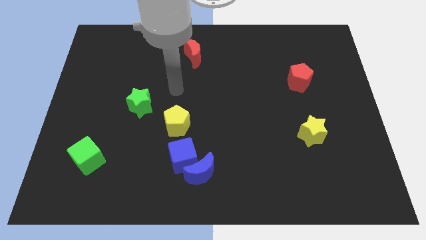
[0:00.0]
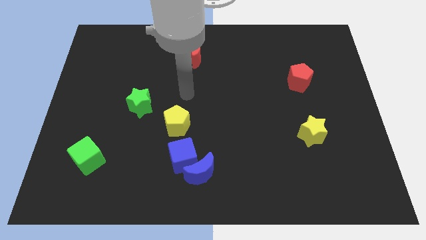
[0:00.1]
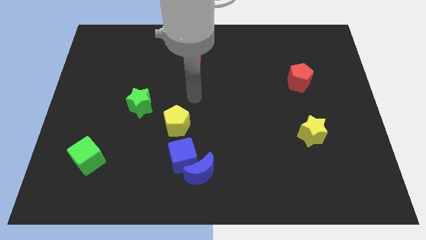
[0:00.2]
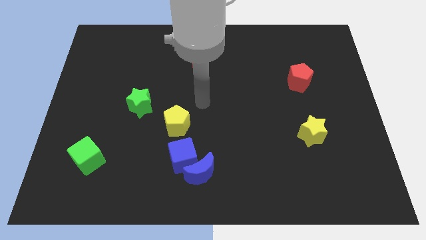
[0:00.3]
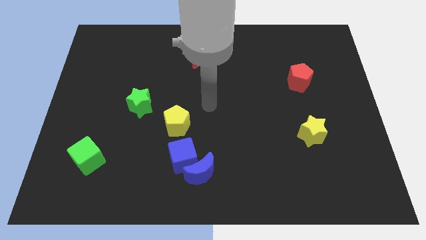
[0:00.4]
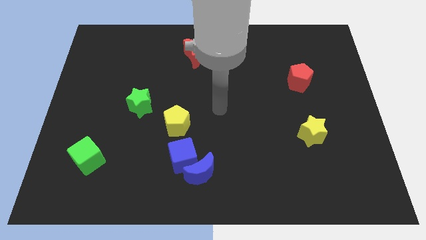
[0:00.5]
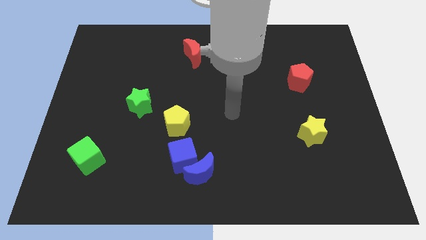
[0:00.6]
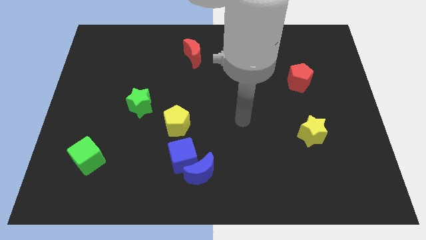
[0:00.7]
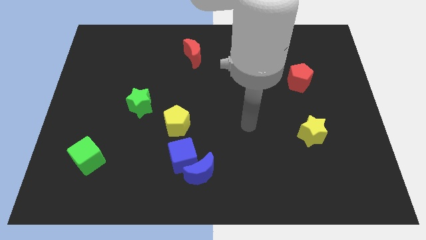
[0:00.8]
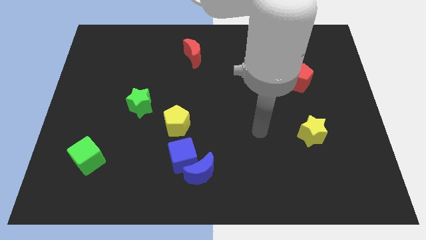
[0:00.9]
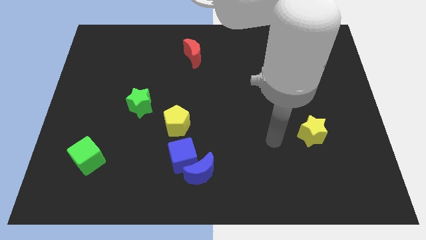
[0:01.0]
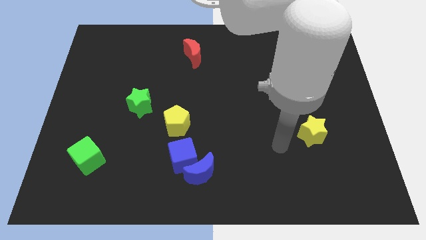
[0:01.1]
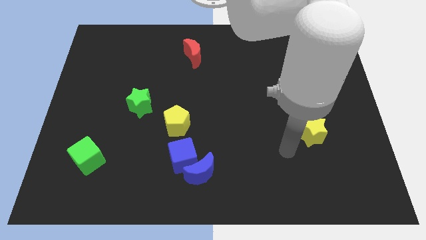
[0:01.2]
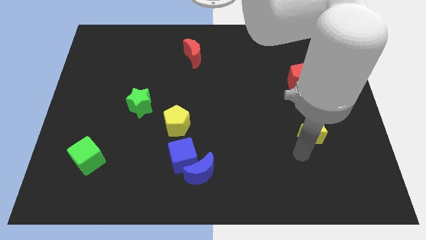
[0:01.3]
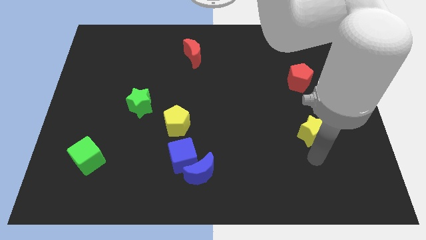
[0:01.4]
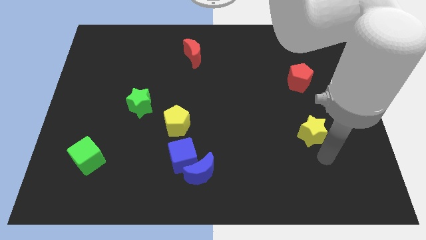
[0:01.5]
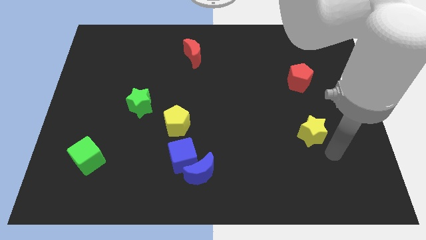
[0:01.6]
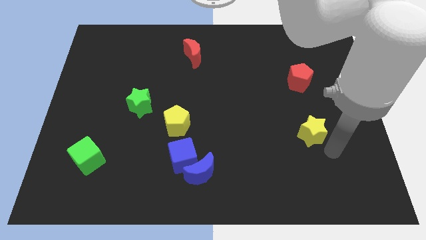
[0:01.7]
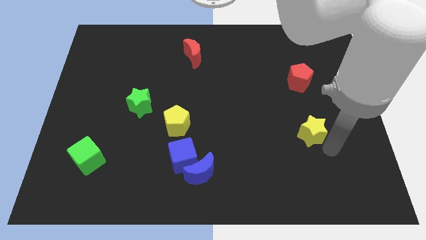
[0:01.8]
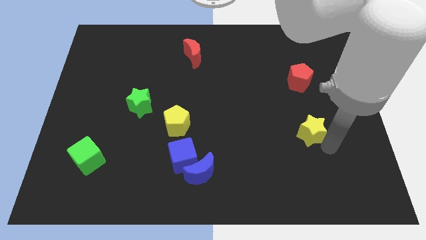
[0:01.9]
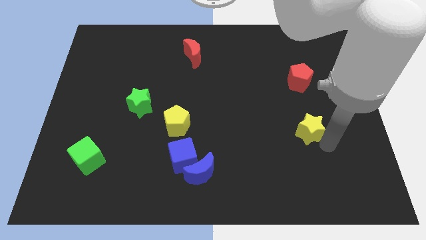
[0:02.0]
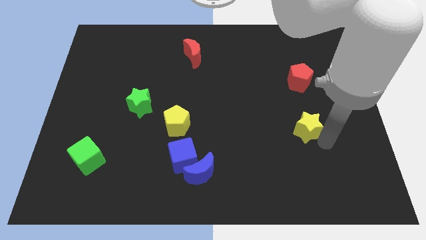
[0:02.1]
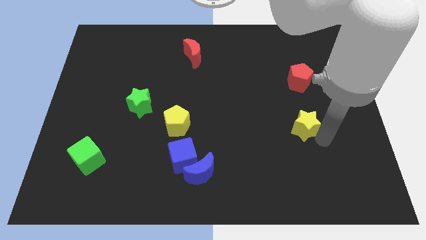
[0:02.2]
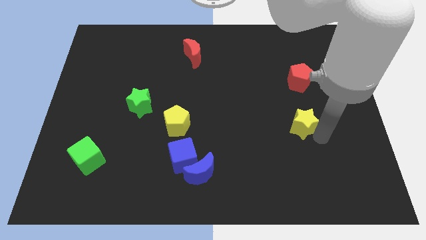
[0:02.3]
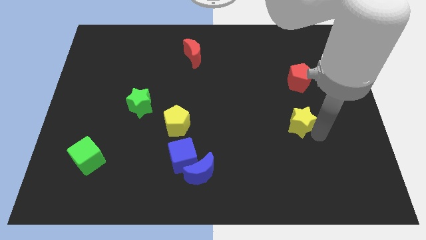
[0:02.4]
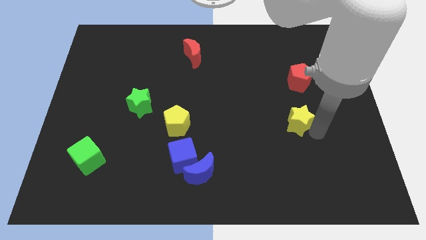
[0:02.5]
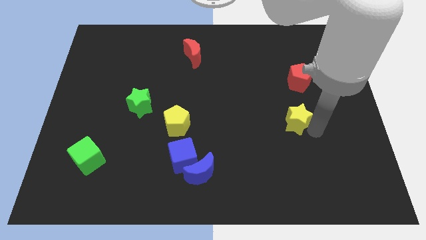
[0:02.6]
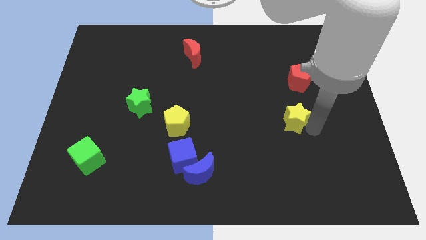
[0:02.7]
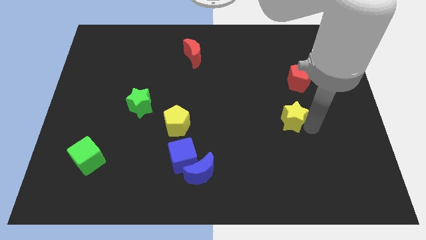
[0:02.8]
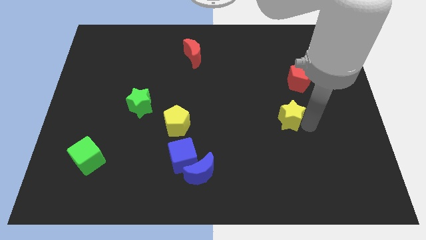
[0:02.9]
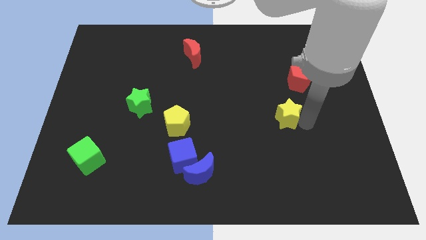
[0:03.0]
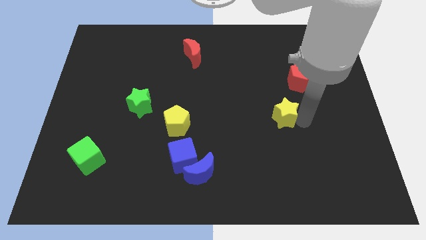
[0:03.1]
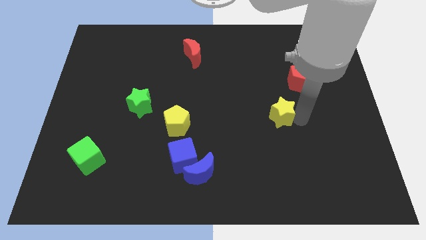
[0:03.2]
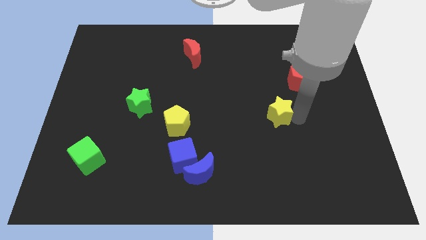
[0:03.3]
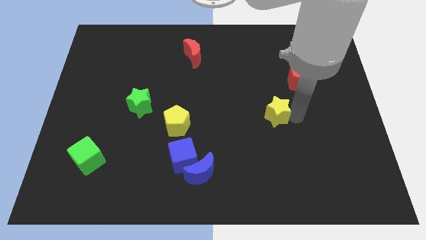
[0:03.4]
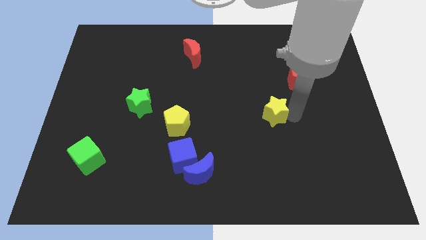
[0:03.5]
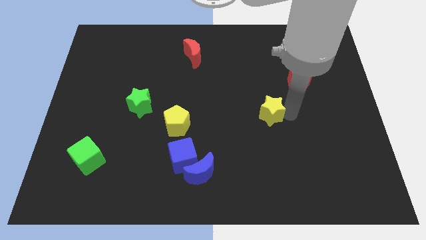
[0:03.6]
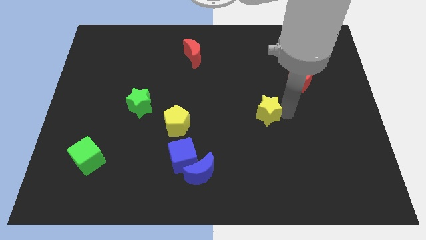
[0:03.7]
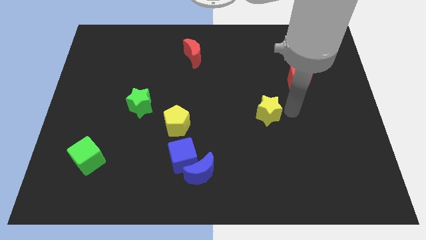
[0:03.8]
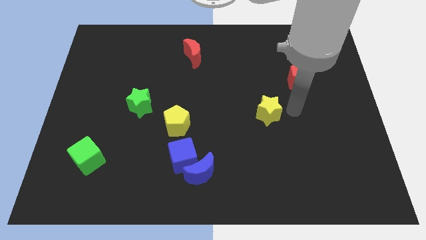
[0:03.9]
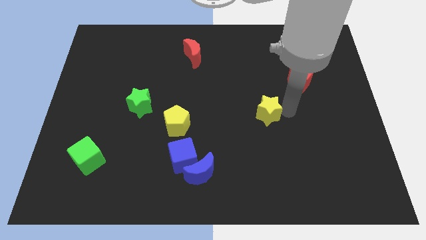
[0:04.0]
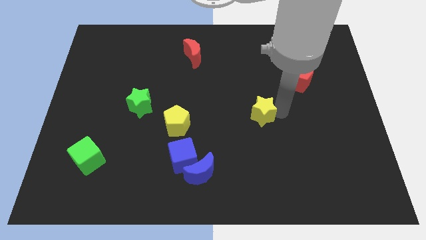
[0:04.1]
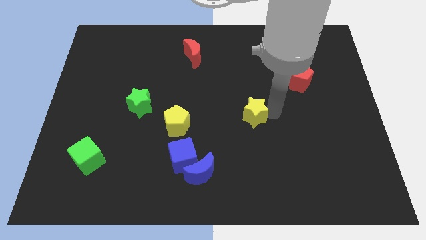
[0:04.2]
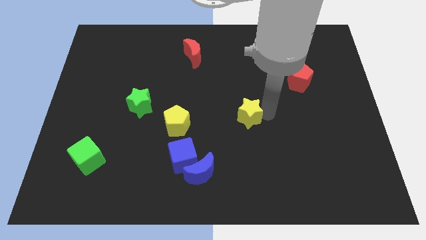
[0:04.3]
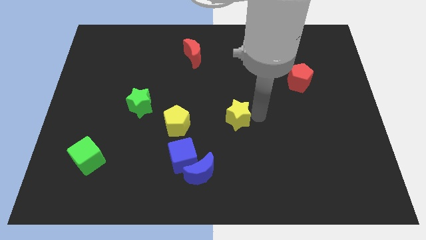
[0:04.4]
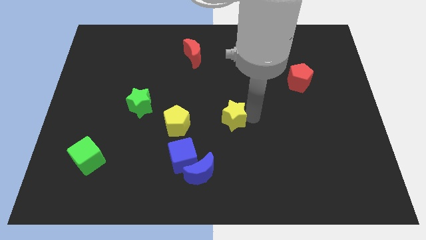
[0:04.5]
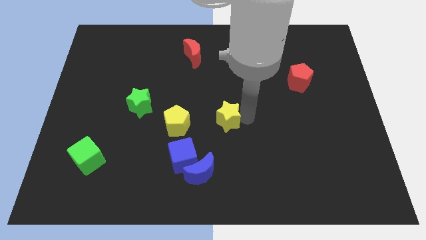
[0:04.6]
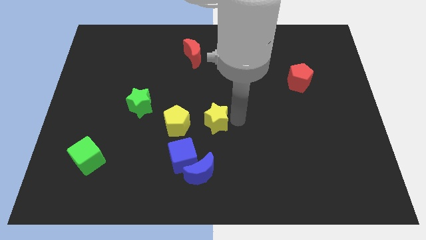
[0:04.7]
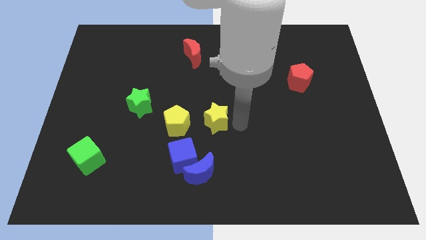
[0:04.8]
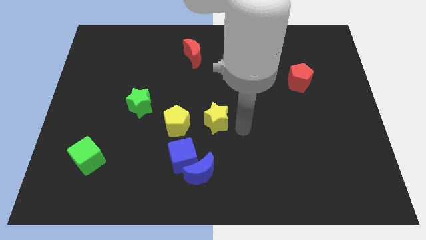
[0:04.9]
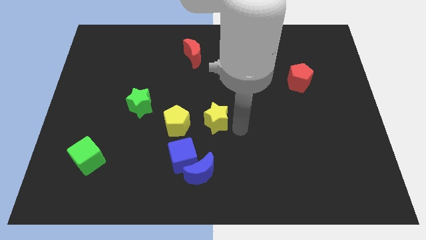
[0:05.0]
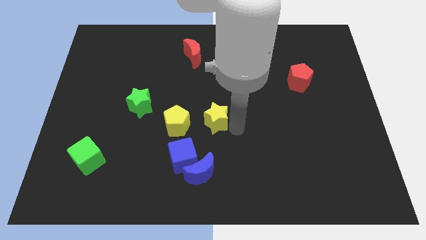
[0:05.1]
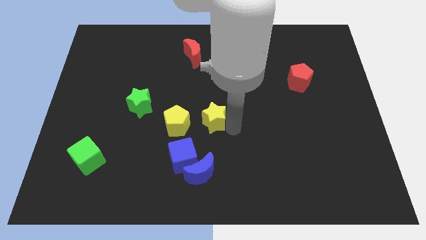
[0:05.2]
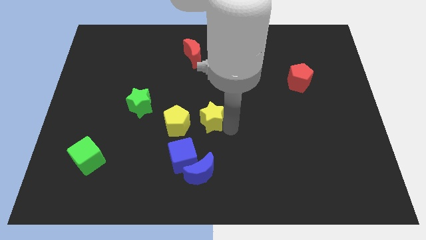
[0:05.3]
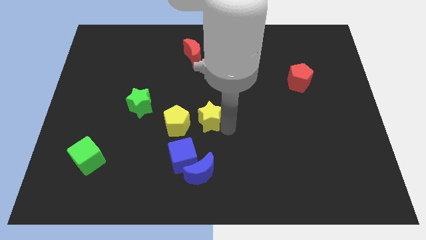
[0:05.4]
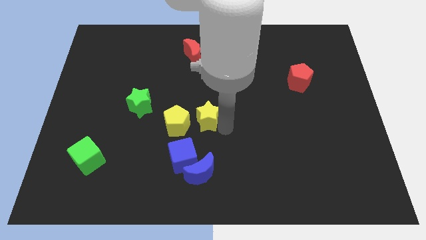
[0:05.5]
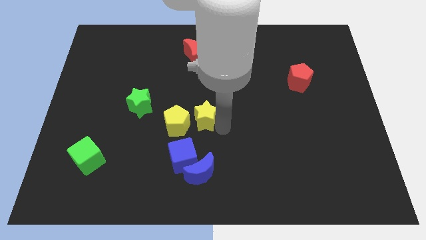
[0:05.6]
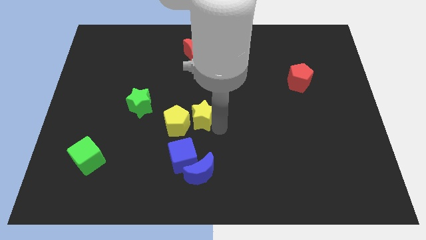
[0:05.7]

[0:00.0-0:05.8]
put the yellow star towards the yellow pentagon

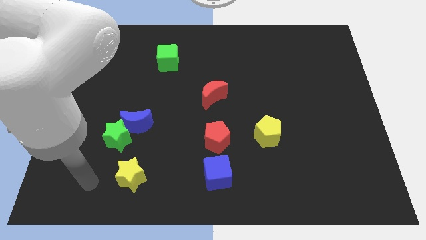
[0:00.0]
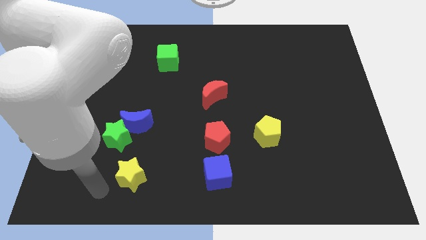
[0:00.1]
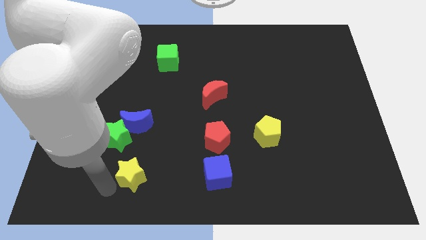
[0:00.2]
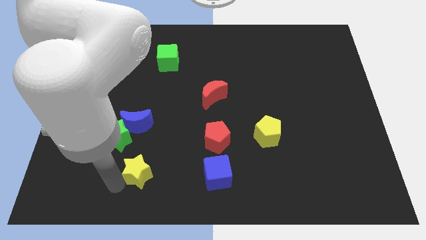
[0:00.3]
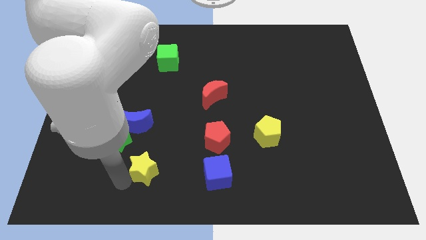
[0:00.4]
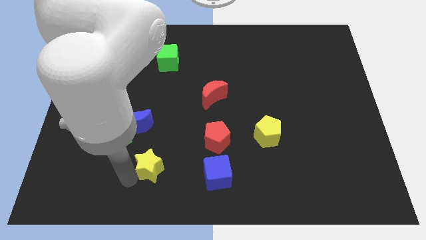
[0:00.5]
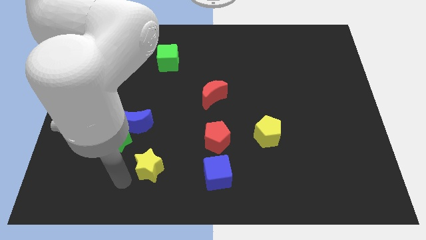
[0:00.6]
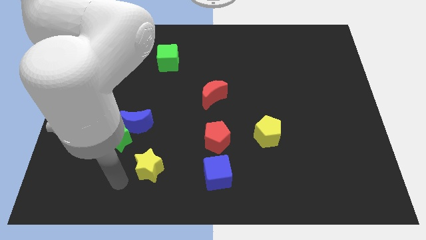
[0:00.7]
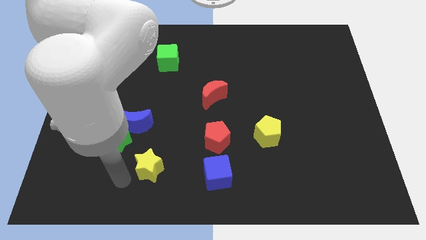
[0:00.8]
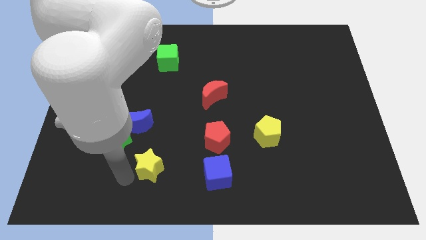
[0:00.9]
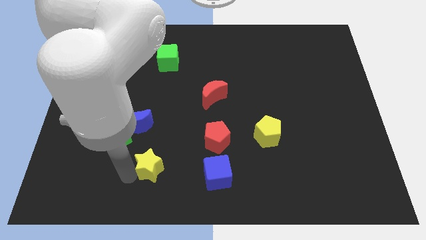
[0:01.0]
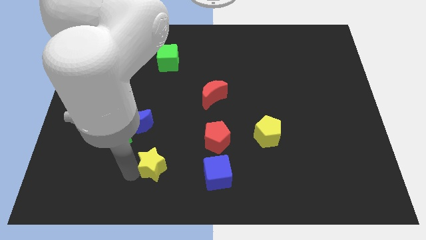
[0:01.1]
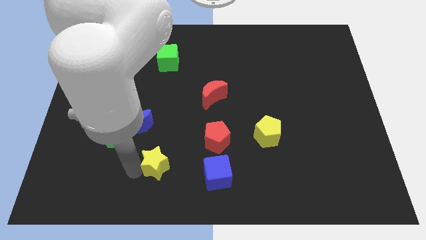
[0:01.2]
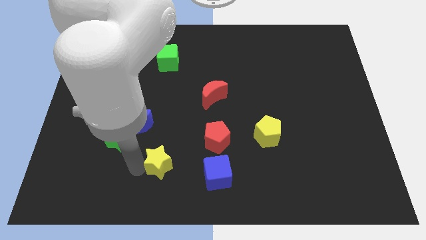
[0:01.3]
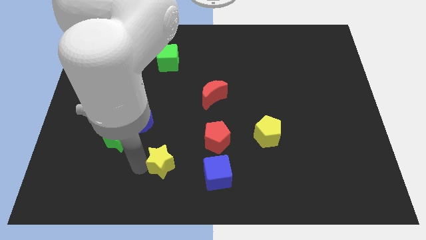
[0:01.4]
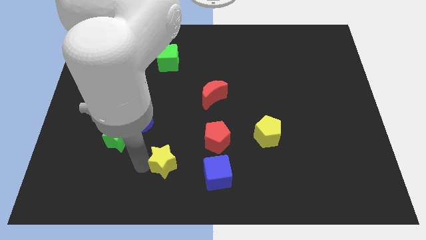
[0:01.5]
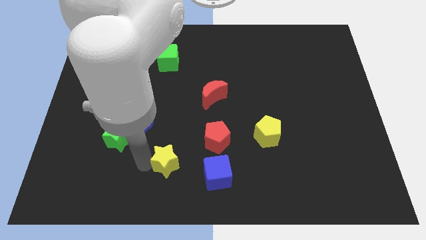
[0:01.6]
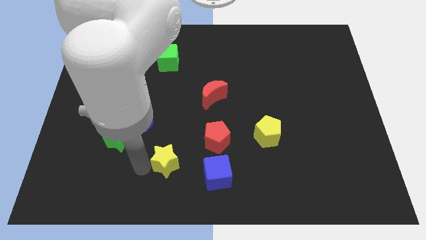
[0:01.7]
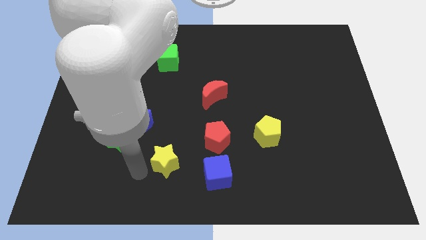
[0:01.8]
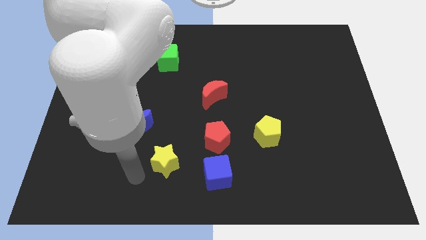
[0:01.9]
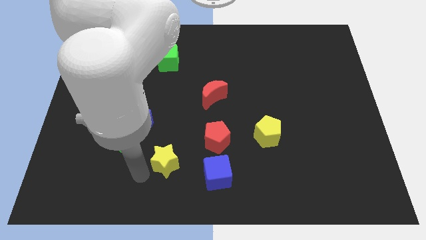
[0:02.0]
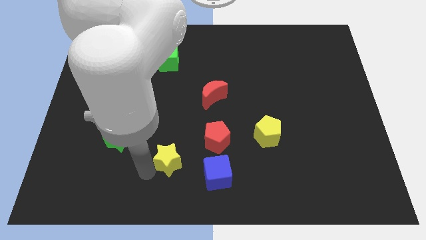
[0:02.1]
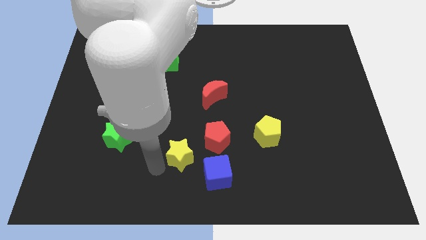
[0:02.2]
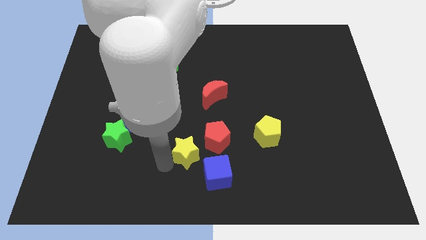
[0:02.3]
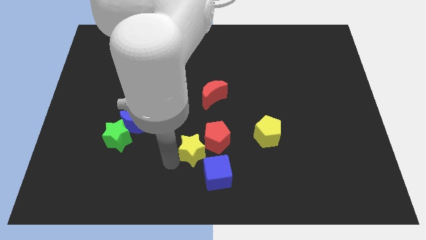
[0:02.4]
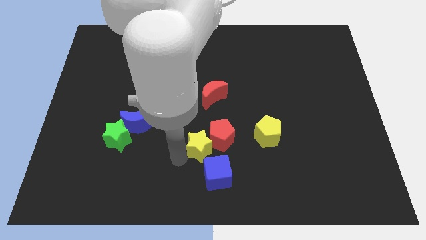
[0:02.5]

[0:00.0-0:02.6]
slide the yellow star next to the red pentagon
